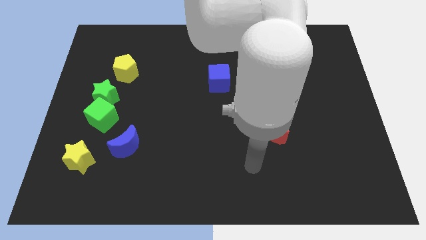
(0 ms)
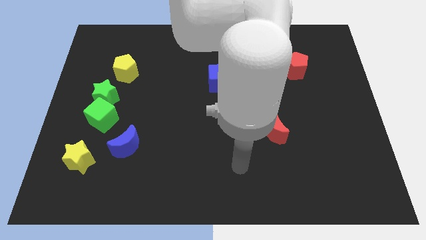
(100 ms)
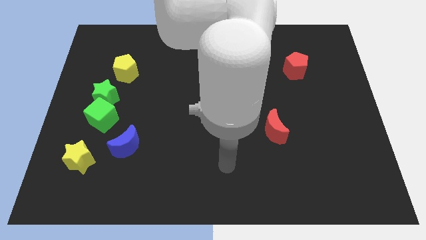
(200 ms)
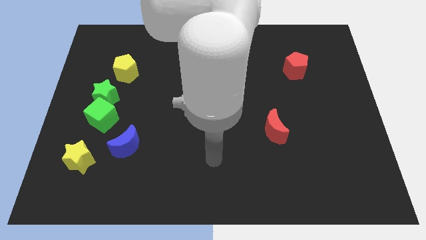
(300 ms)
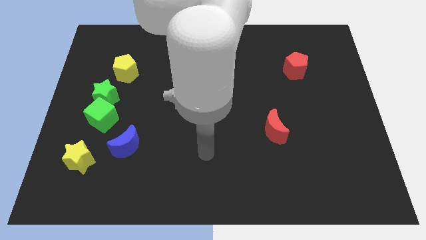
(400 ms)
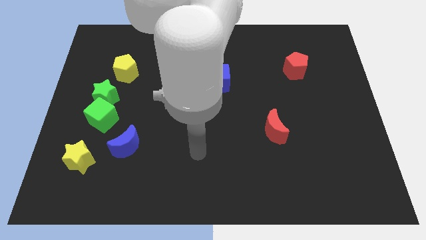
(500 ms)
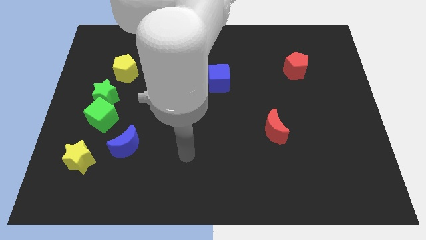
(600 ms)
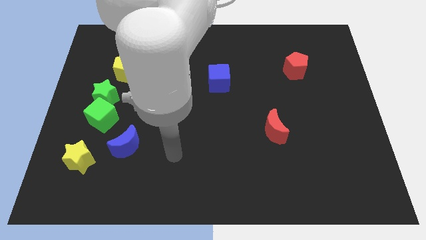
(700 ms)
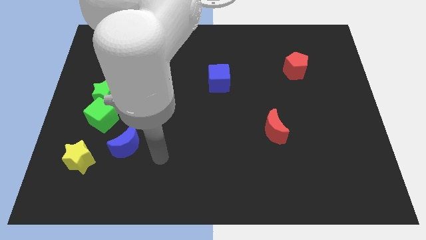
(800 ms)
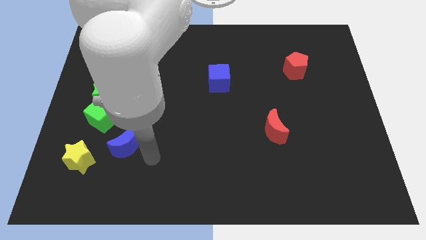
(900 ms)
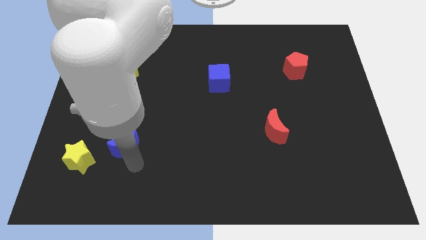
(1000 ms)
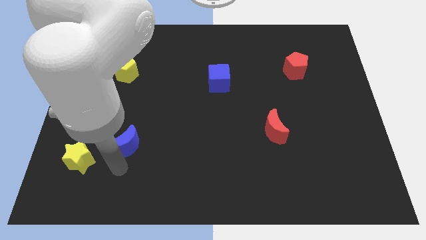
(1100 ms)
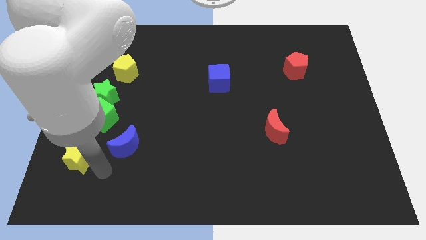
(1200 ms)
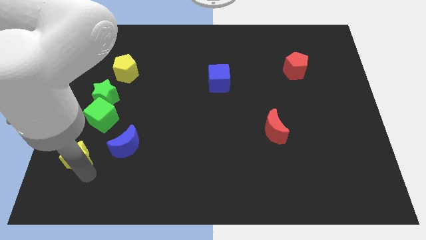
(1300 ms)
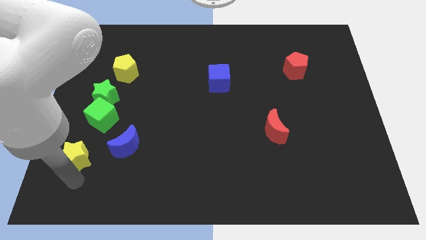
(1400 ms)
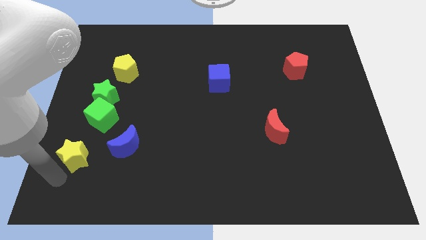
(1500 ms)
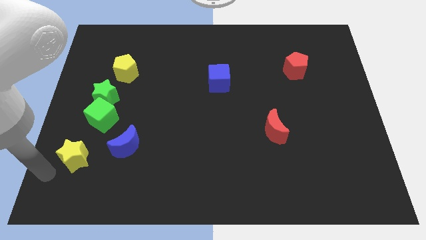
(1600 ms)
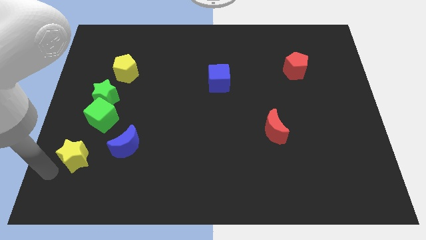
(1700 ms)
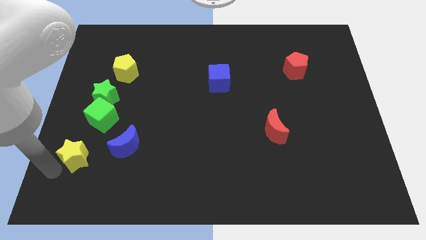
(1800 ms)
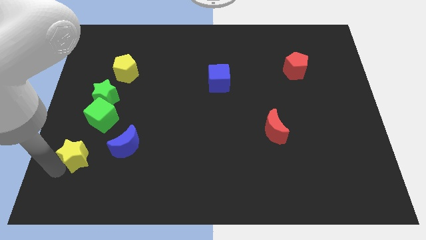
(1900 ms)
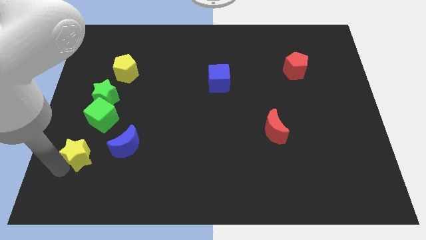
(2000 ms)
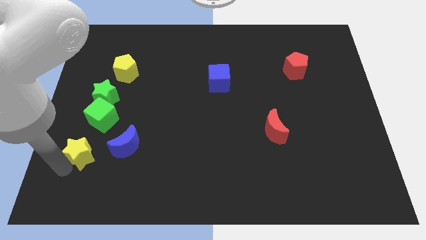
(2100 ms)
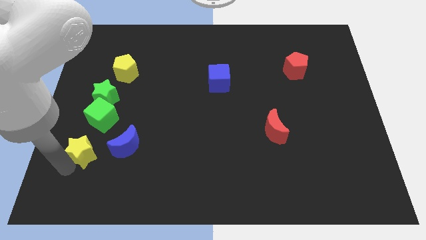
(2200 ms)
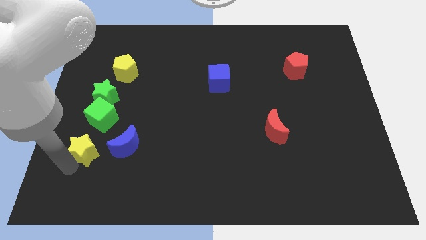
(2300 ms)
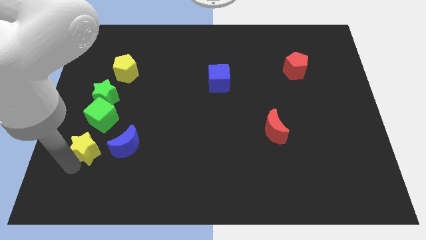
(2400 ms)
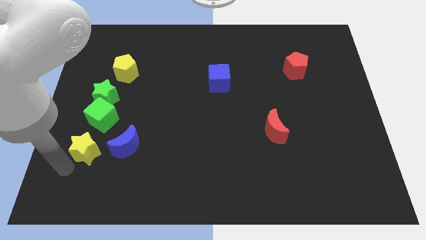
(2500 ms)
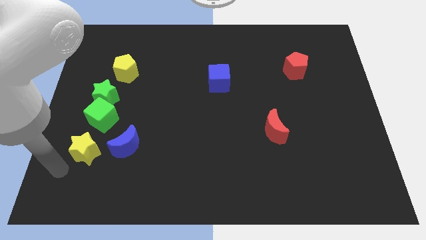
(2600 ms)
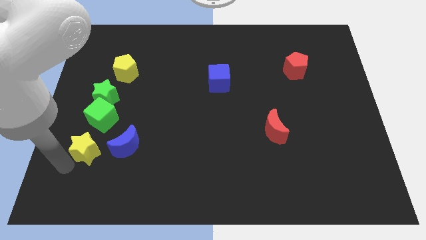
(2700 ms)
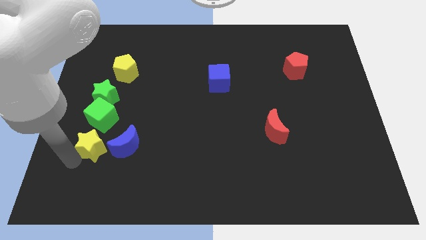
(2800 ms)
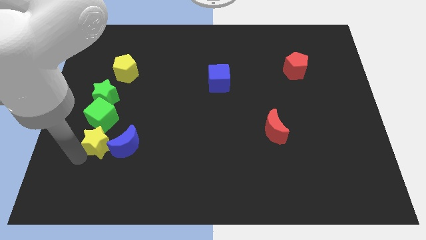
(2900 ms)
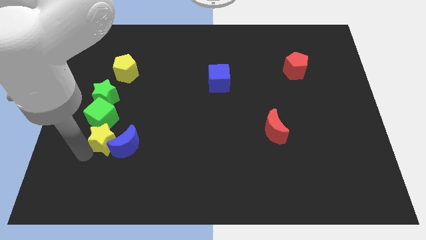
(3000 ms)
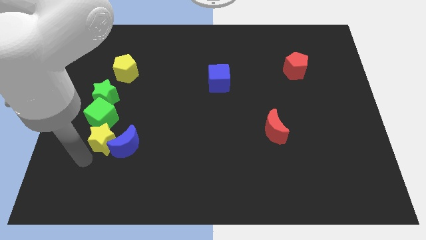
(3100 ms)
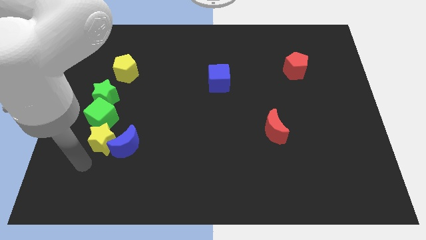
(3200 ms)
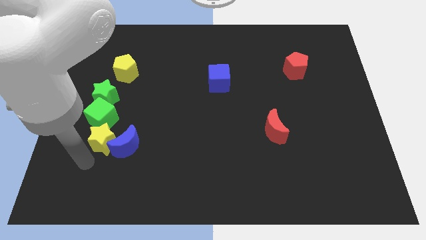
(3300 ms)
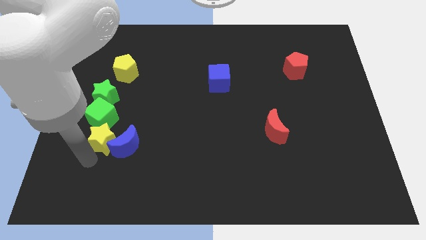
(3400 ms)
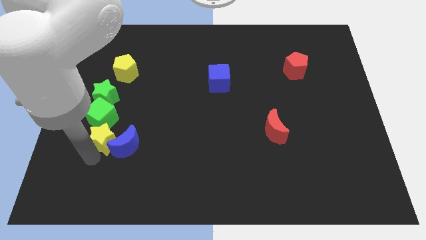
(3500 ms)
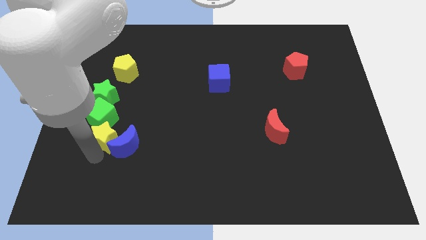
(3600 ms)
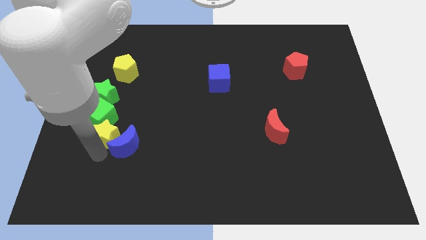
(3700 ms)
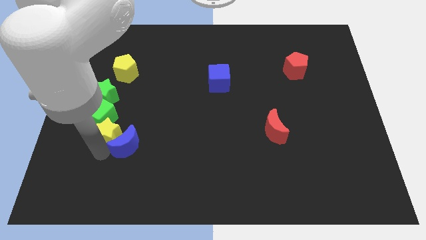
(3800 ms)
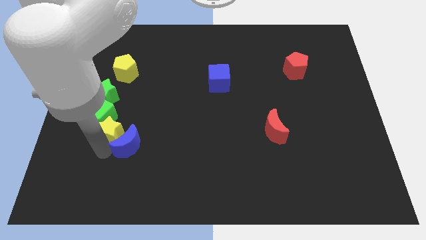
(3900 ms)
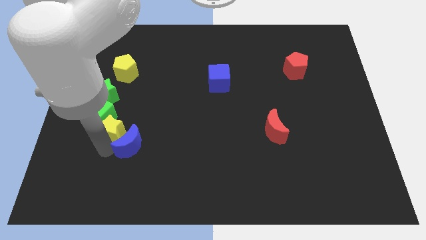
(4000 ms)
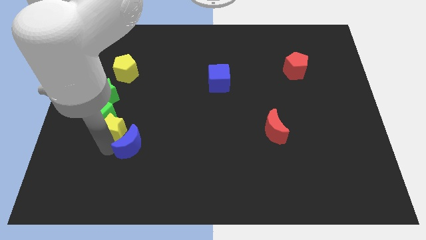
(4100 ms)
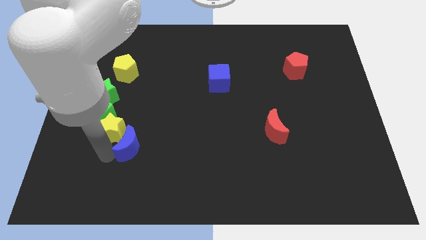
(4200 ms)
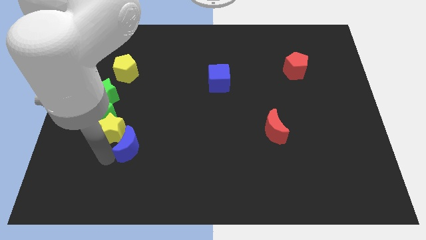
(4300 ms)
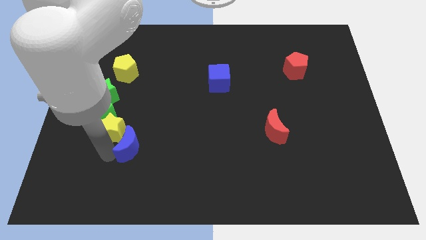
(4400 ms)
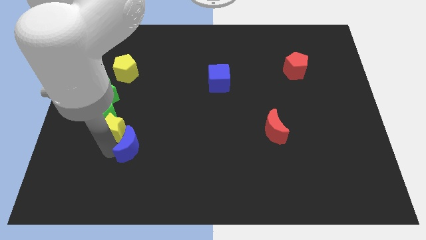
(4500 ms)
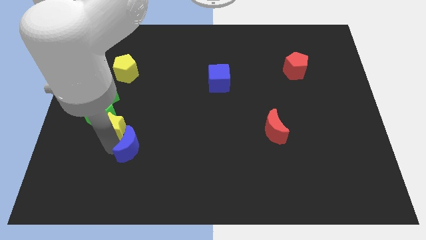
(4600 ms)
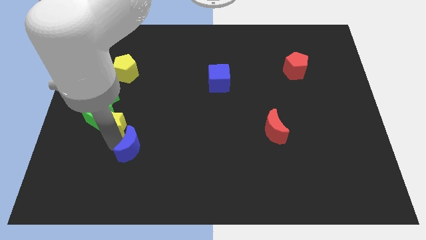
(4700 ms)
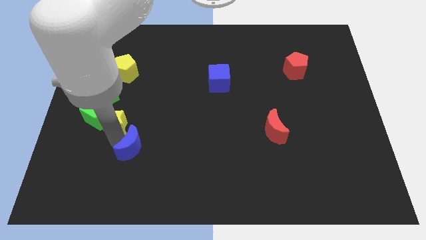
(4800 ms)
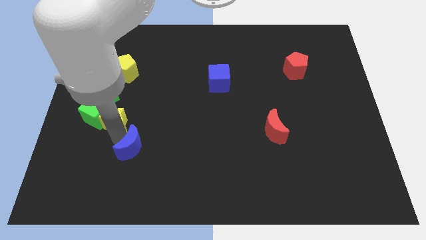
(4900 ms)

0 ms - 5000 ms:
put the yellow star below the yellow pentagon

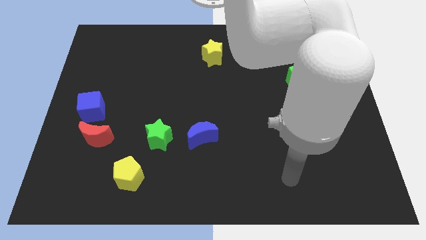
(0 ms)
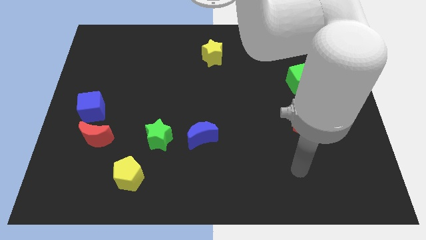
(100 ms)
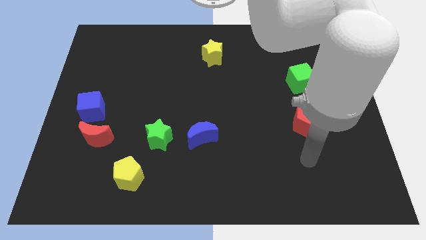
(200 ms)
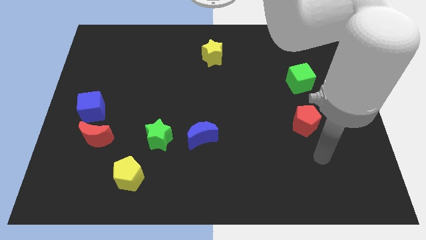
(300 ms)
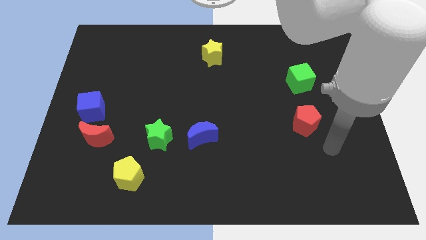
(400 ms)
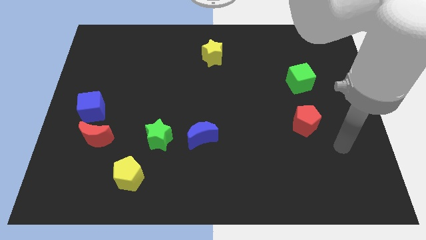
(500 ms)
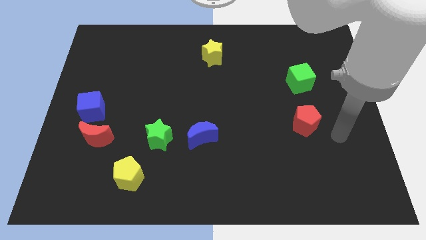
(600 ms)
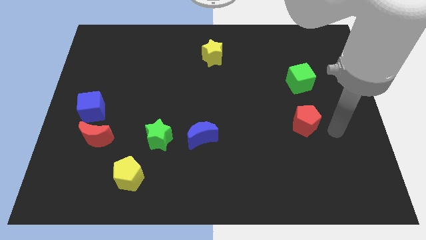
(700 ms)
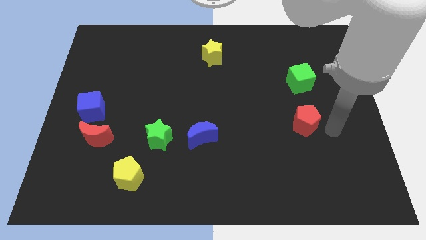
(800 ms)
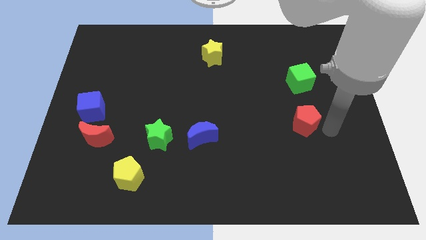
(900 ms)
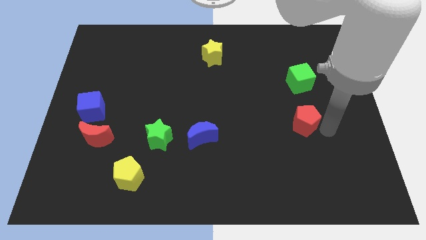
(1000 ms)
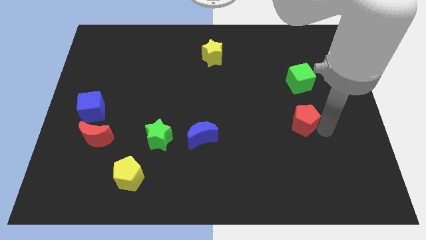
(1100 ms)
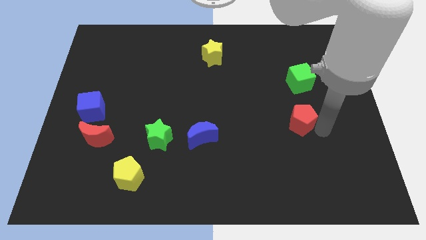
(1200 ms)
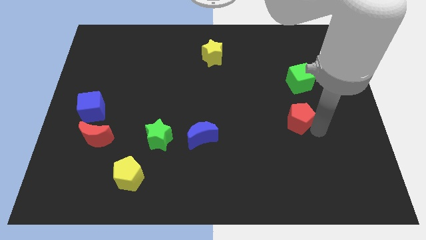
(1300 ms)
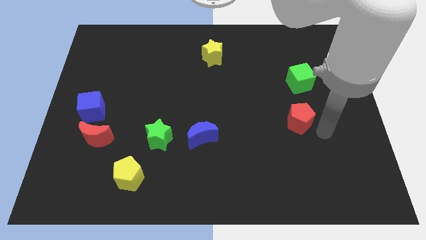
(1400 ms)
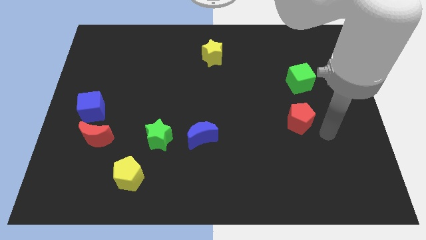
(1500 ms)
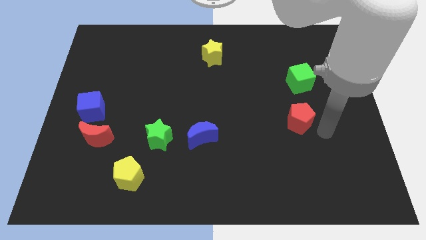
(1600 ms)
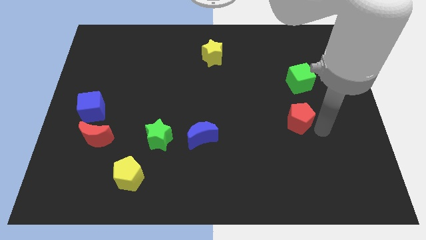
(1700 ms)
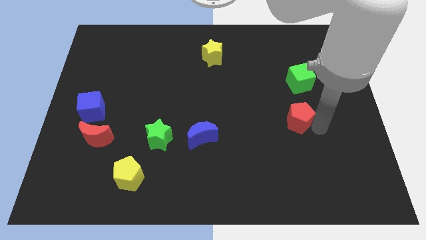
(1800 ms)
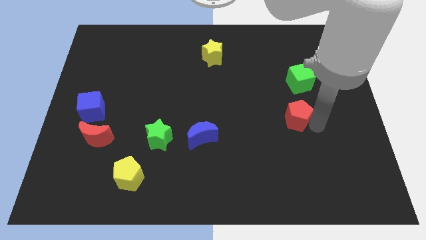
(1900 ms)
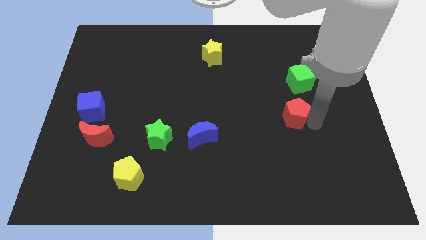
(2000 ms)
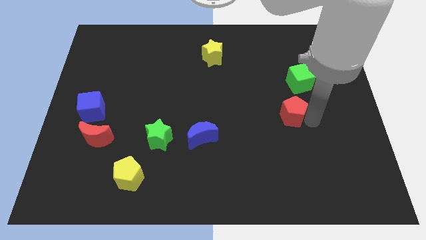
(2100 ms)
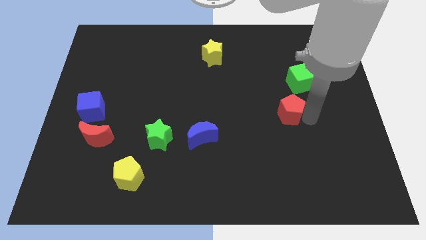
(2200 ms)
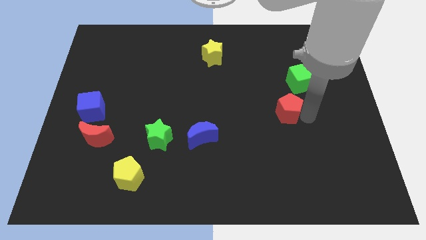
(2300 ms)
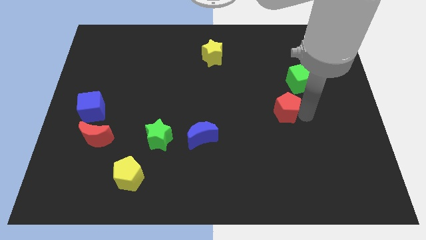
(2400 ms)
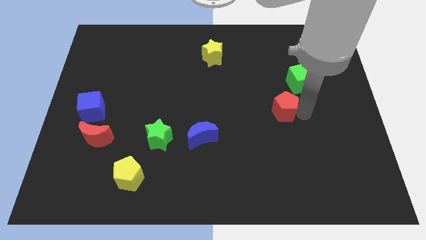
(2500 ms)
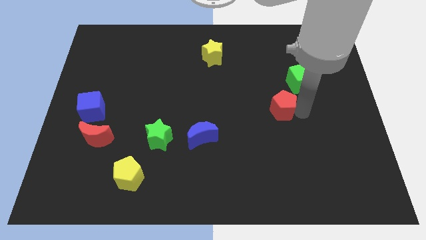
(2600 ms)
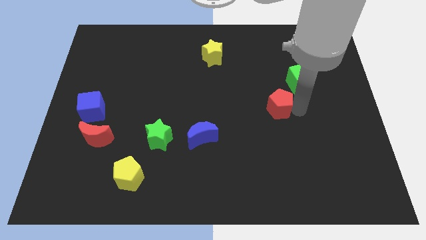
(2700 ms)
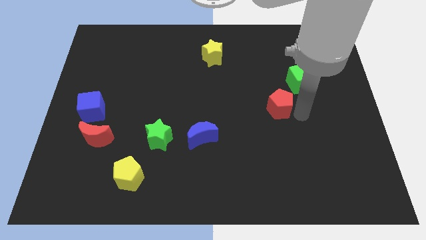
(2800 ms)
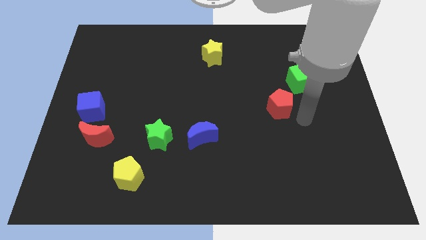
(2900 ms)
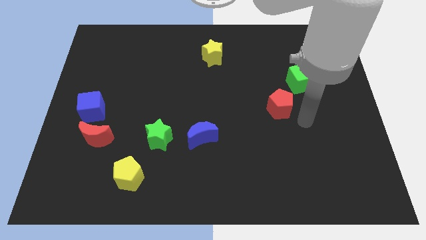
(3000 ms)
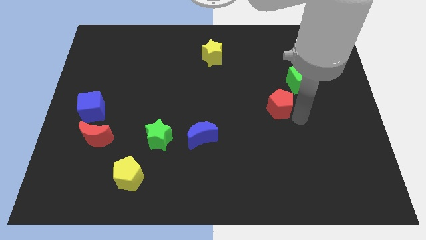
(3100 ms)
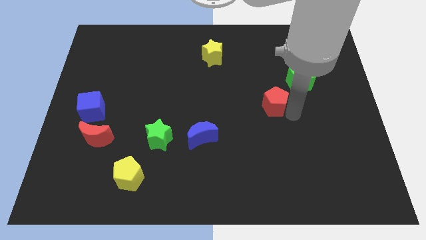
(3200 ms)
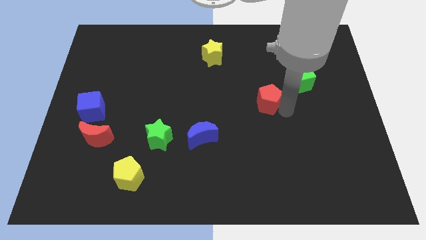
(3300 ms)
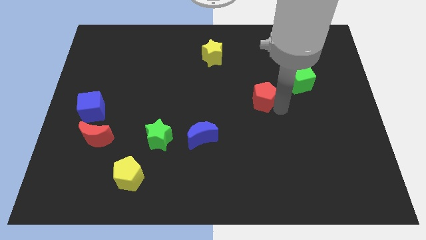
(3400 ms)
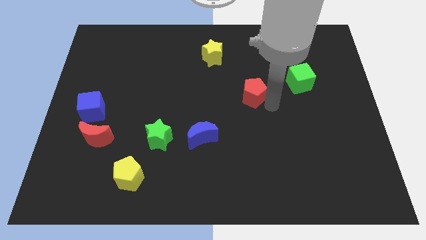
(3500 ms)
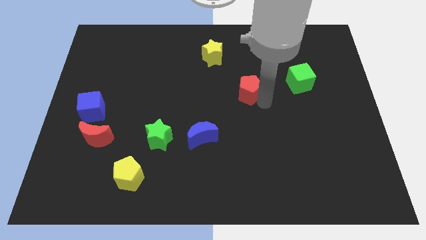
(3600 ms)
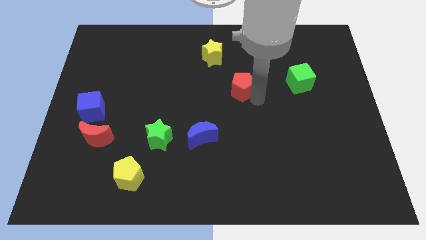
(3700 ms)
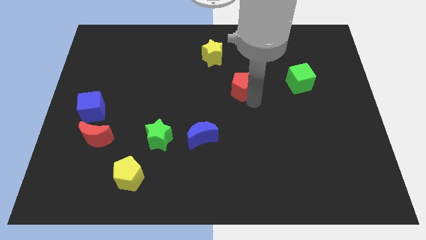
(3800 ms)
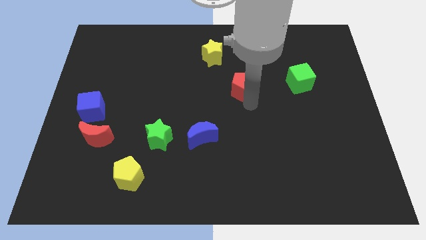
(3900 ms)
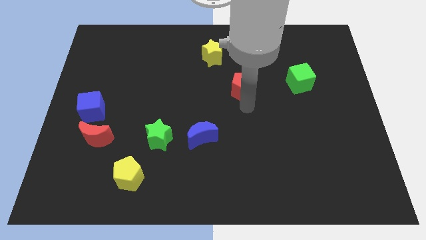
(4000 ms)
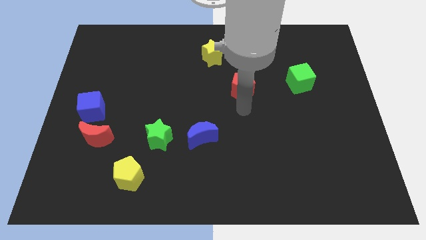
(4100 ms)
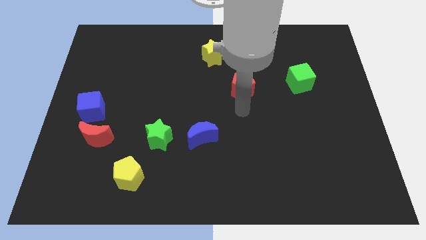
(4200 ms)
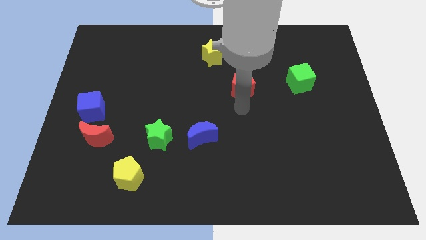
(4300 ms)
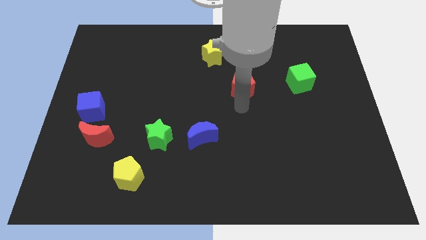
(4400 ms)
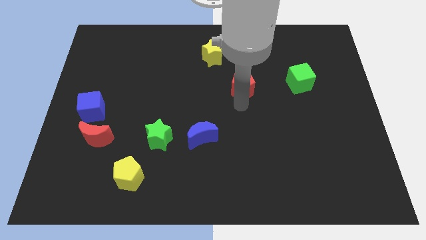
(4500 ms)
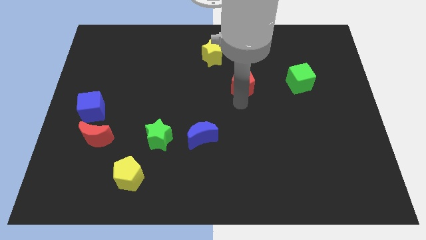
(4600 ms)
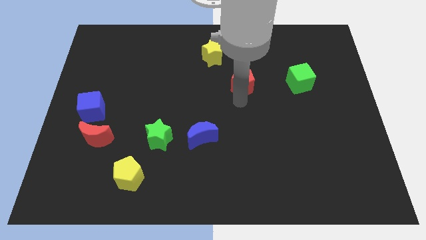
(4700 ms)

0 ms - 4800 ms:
slide the red pentagon to the bottom right side of the yellow star
